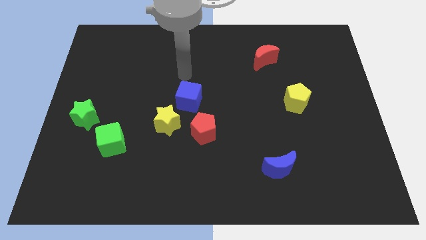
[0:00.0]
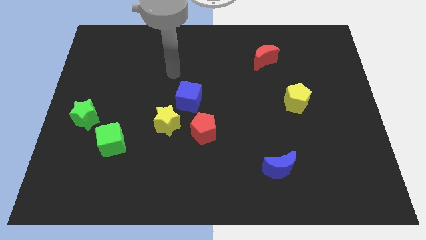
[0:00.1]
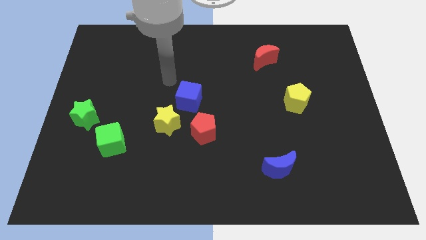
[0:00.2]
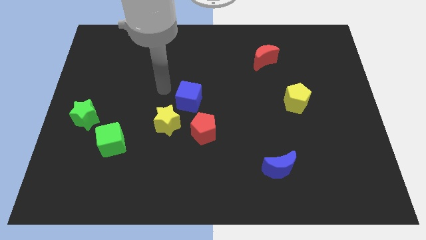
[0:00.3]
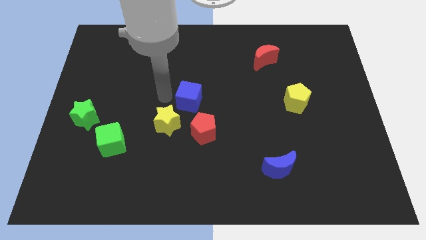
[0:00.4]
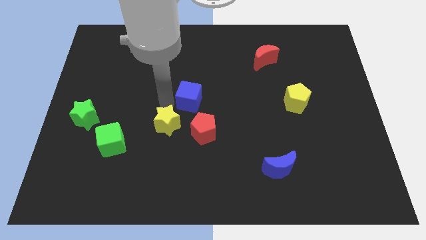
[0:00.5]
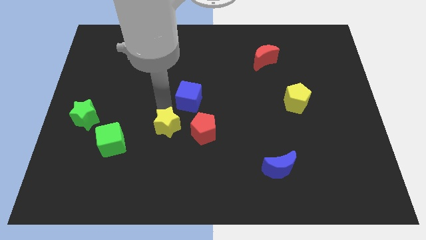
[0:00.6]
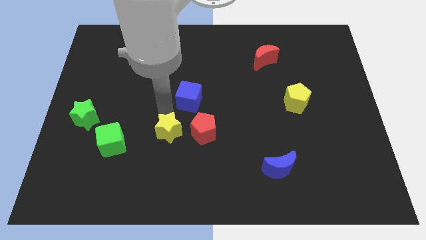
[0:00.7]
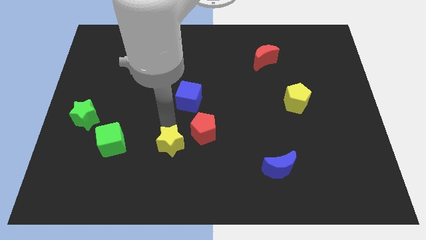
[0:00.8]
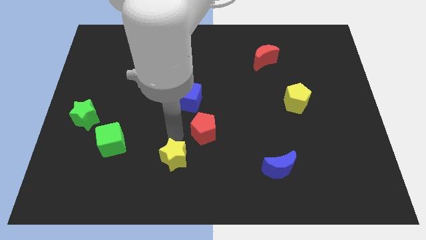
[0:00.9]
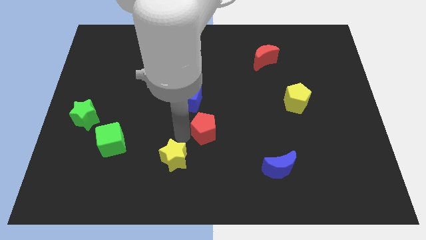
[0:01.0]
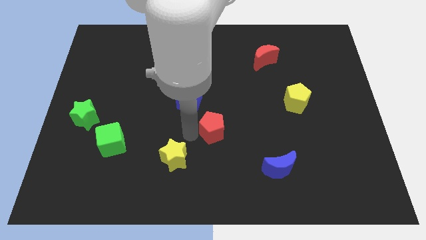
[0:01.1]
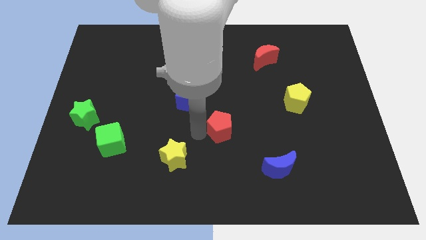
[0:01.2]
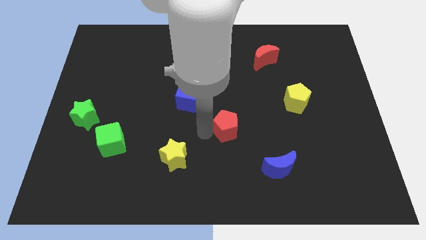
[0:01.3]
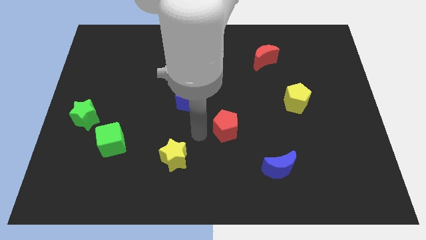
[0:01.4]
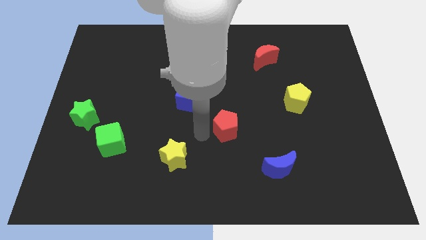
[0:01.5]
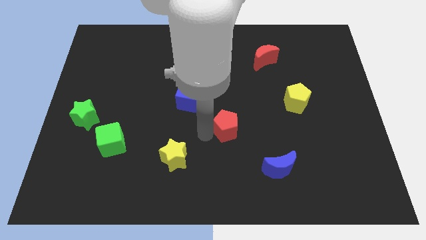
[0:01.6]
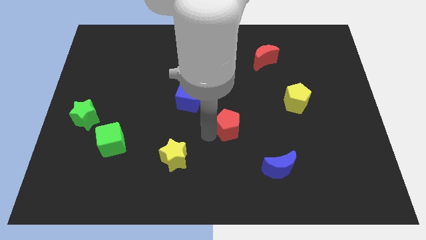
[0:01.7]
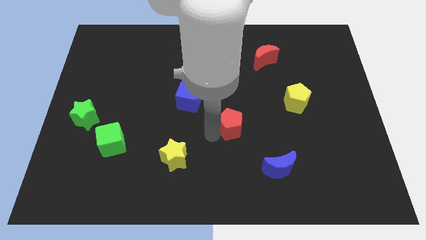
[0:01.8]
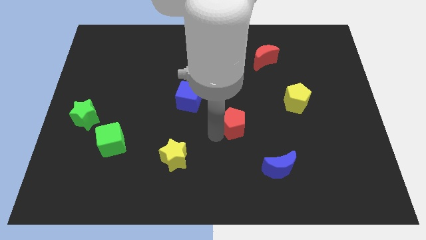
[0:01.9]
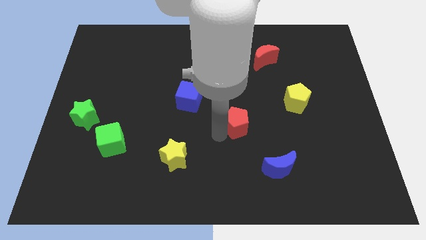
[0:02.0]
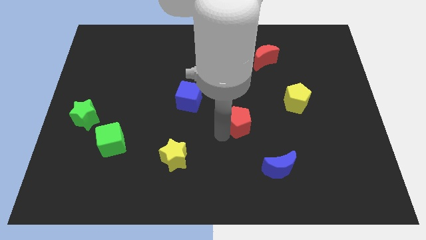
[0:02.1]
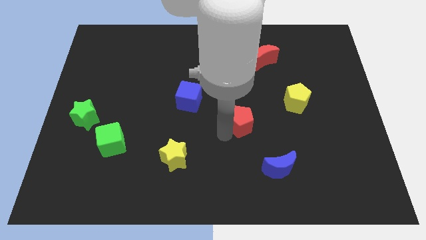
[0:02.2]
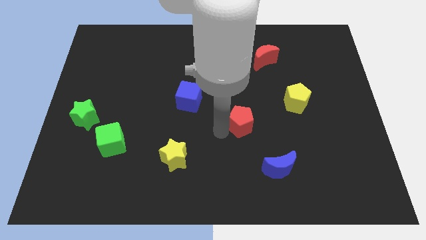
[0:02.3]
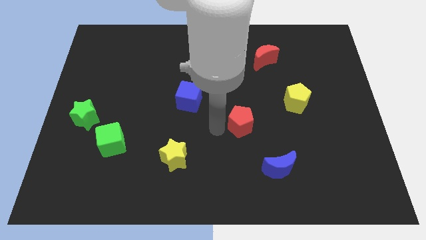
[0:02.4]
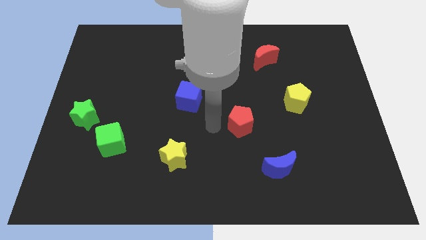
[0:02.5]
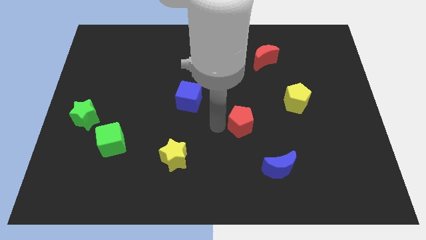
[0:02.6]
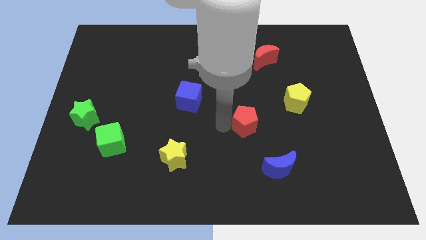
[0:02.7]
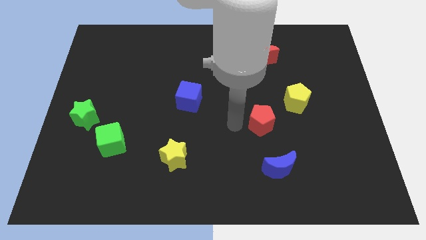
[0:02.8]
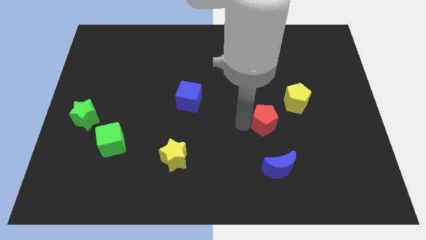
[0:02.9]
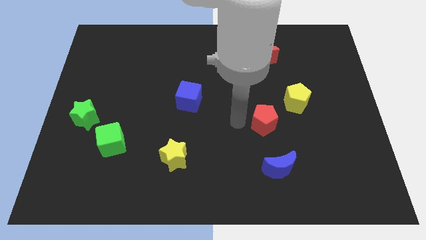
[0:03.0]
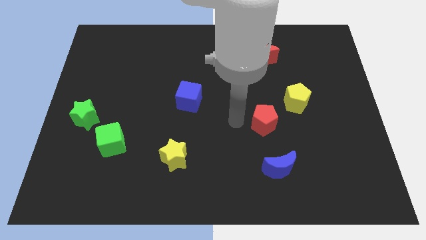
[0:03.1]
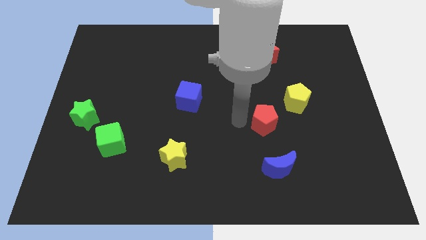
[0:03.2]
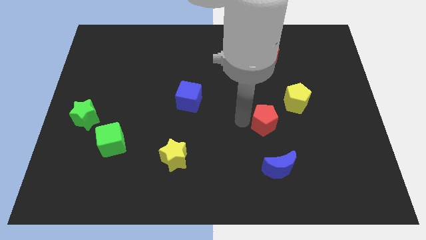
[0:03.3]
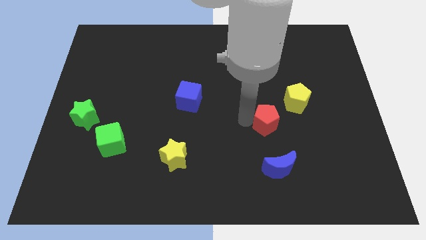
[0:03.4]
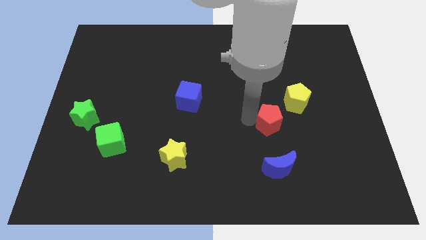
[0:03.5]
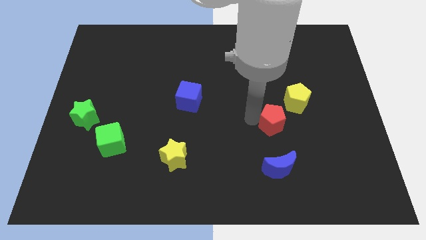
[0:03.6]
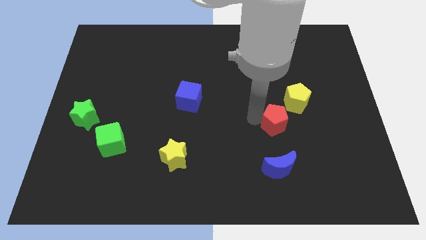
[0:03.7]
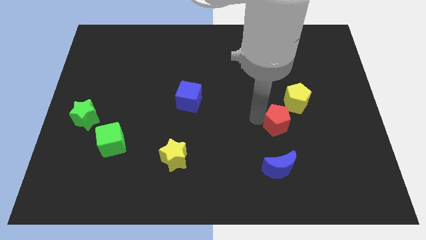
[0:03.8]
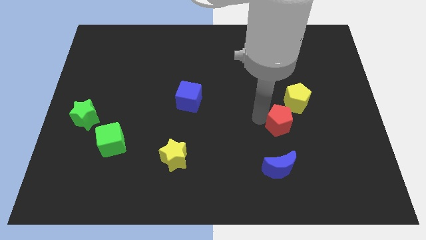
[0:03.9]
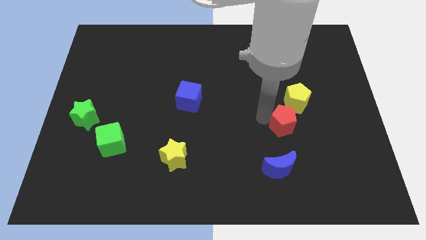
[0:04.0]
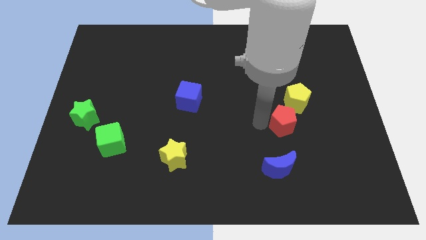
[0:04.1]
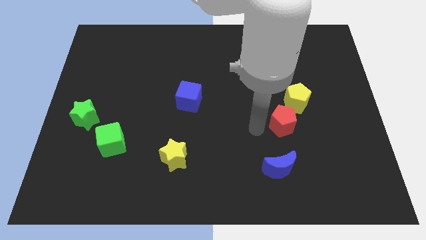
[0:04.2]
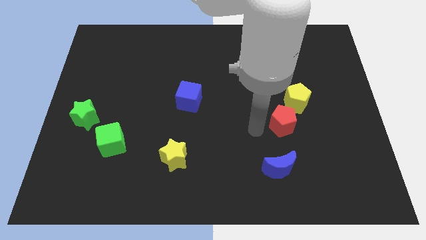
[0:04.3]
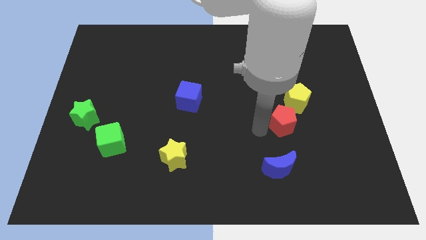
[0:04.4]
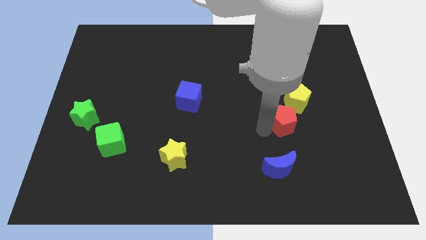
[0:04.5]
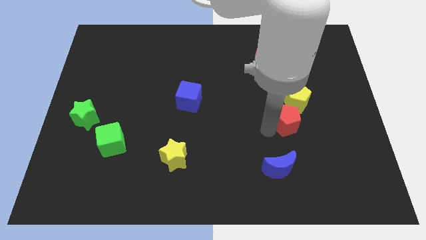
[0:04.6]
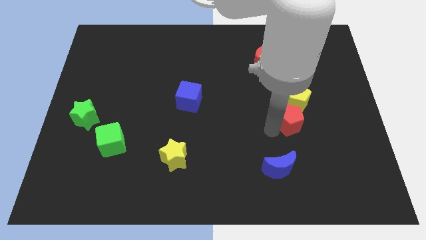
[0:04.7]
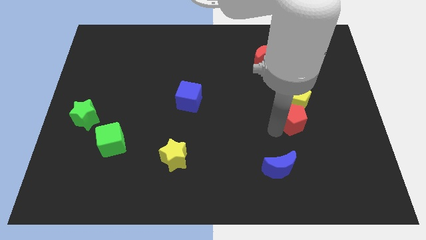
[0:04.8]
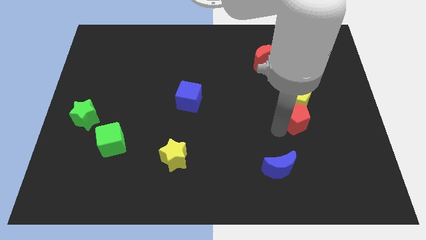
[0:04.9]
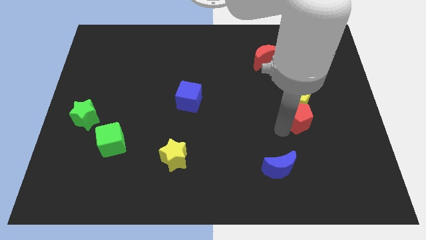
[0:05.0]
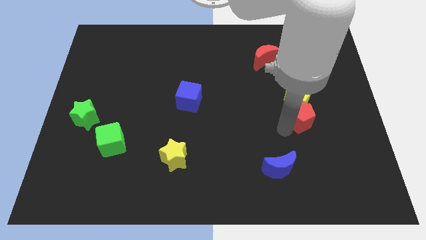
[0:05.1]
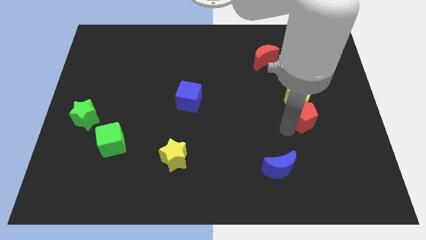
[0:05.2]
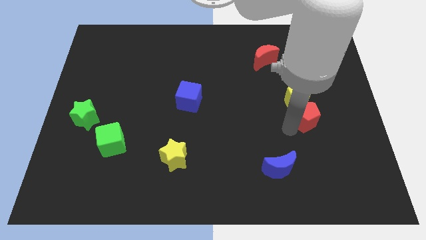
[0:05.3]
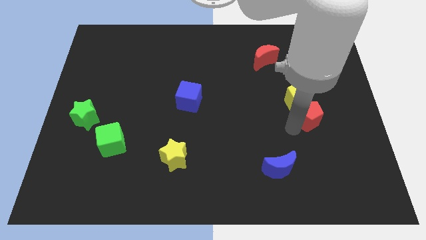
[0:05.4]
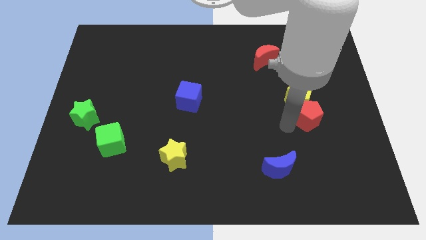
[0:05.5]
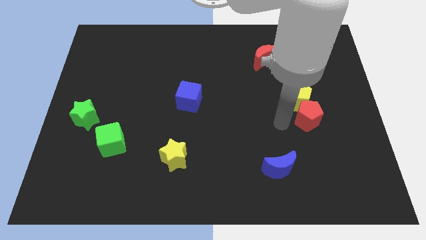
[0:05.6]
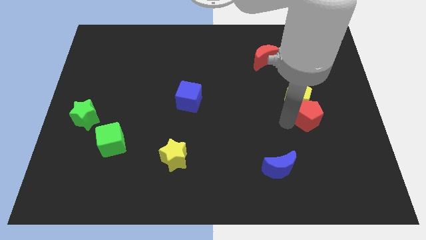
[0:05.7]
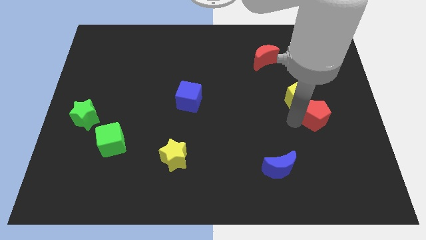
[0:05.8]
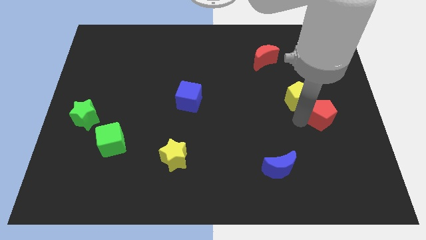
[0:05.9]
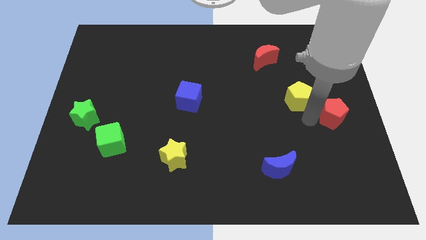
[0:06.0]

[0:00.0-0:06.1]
push the red pentagon to the center right
